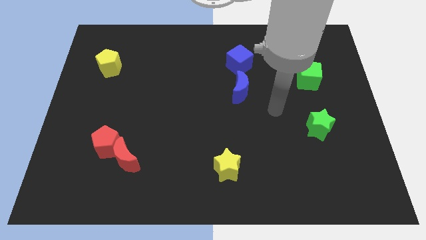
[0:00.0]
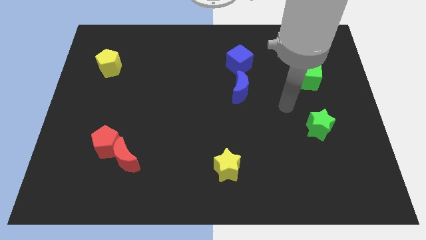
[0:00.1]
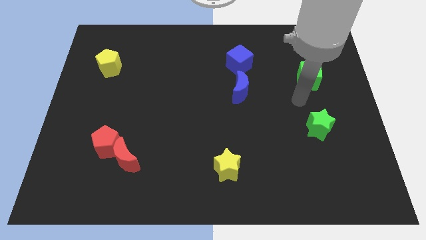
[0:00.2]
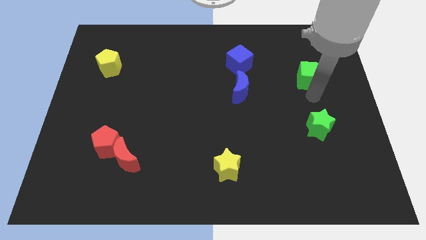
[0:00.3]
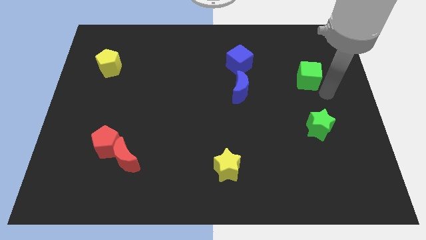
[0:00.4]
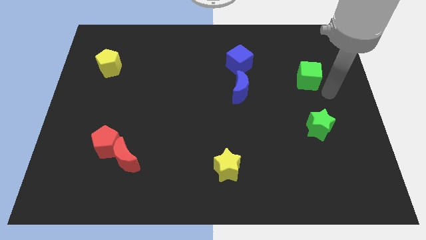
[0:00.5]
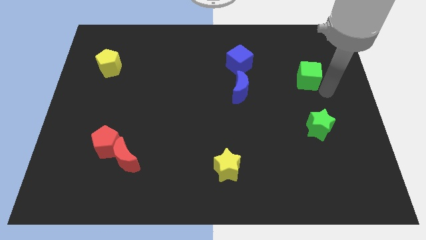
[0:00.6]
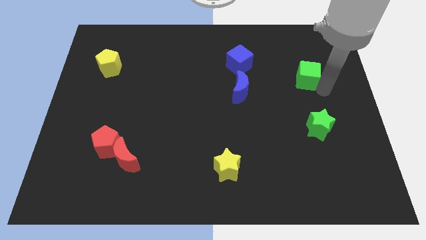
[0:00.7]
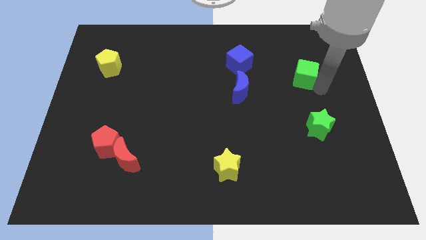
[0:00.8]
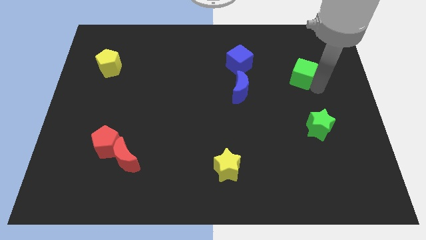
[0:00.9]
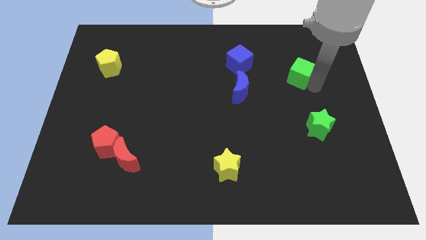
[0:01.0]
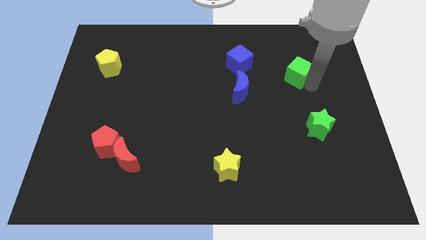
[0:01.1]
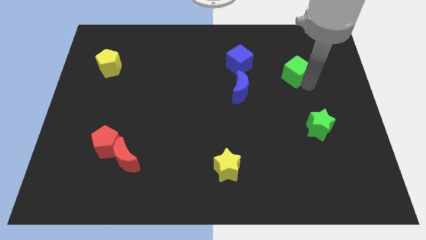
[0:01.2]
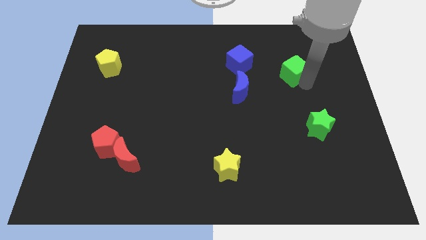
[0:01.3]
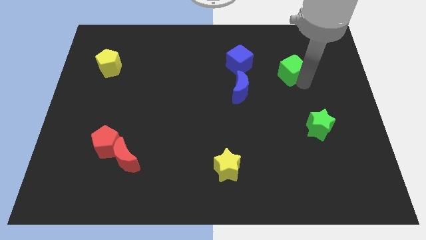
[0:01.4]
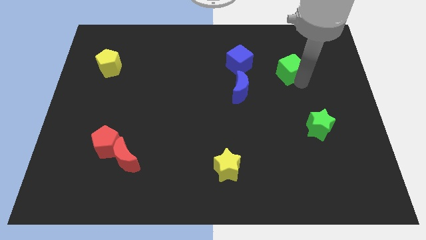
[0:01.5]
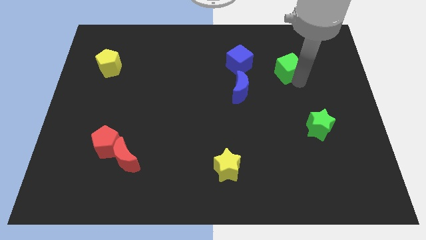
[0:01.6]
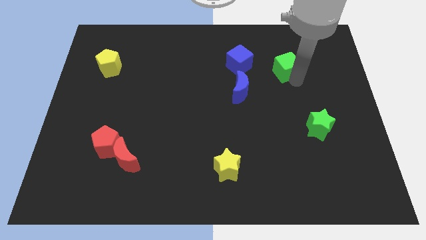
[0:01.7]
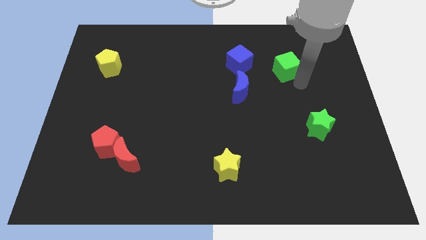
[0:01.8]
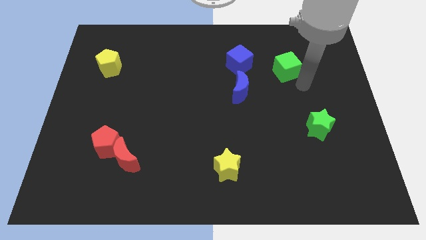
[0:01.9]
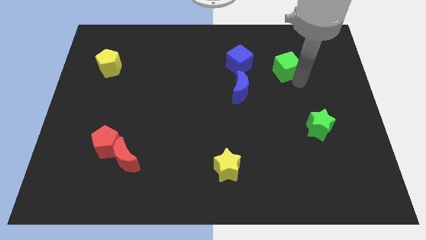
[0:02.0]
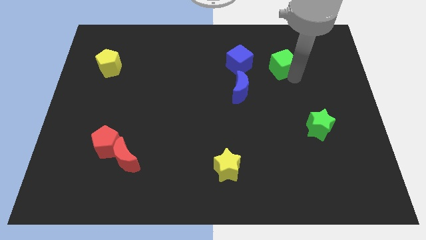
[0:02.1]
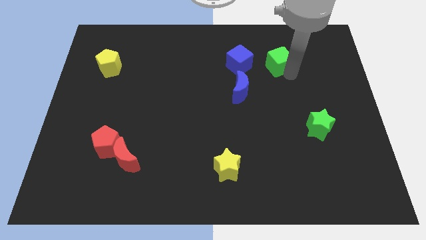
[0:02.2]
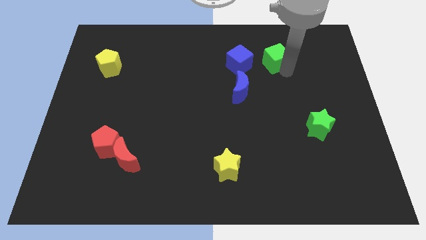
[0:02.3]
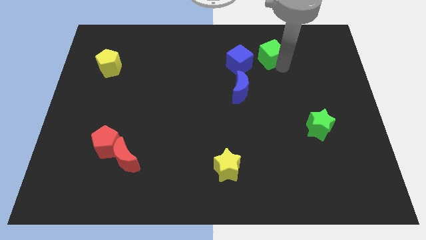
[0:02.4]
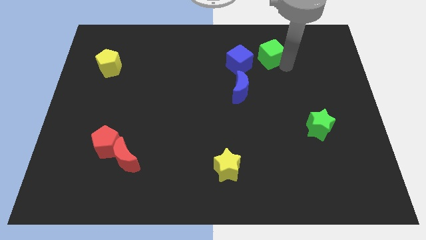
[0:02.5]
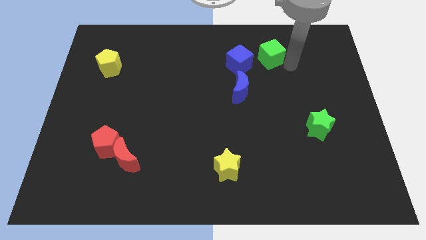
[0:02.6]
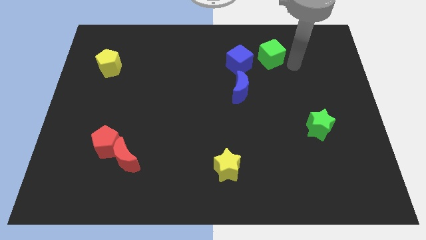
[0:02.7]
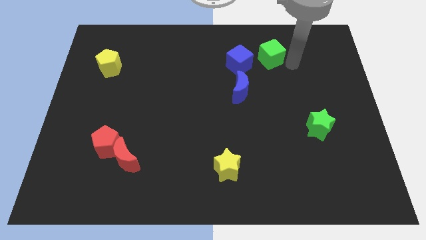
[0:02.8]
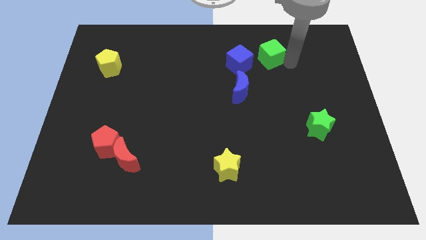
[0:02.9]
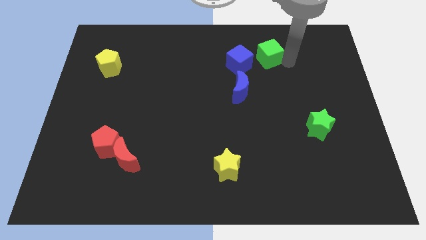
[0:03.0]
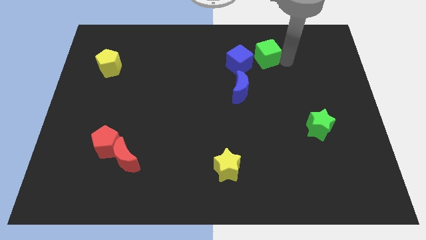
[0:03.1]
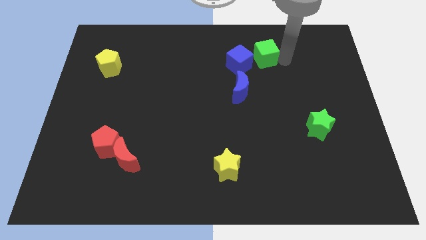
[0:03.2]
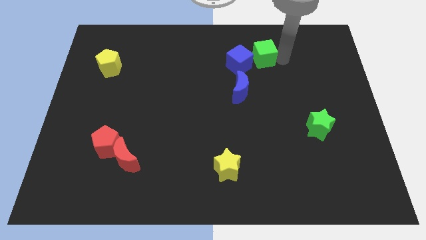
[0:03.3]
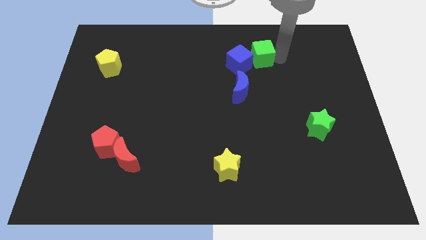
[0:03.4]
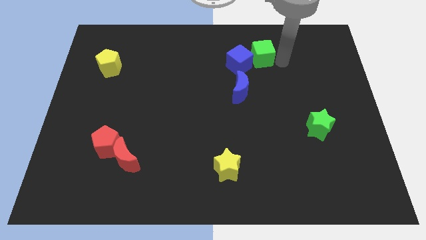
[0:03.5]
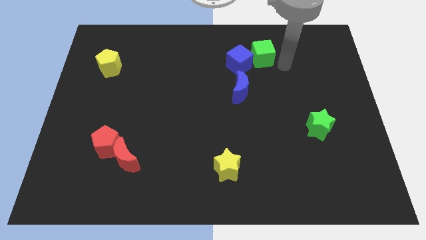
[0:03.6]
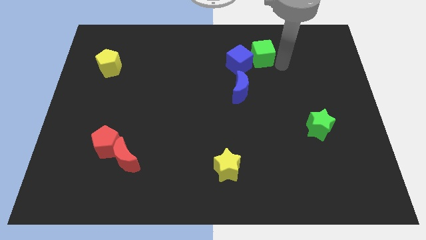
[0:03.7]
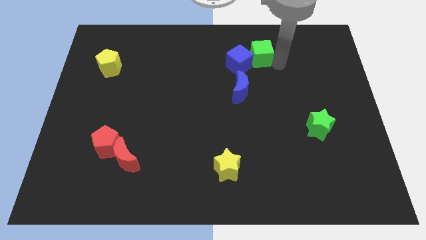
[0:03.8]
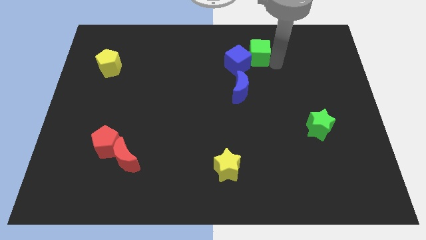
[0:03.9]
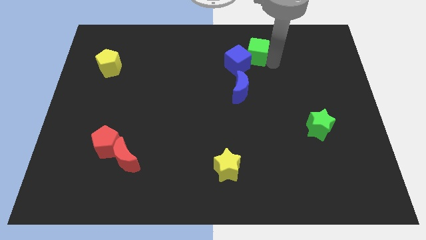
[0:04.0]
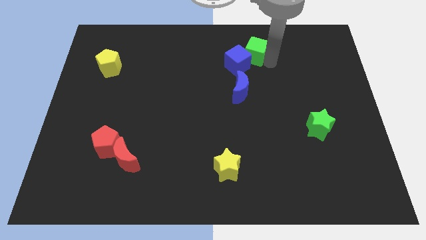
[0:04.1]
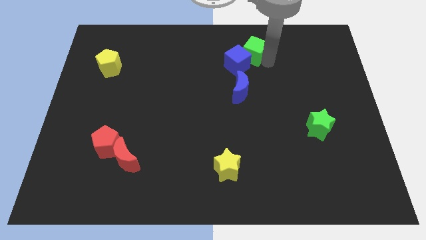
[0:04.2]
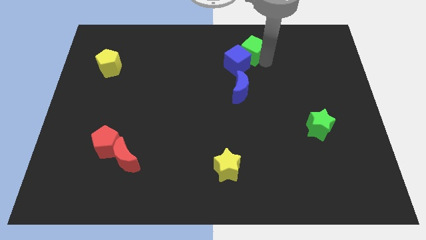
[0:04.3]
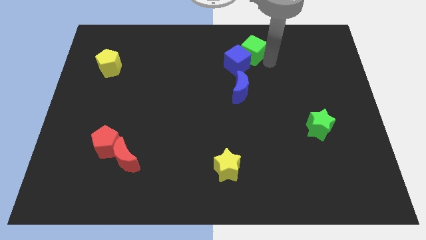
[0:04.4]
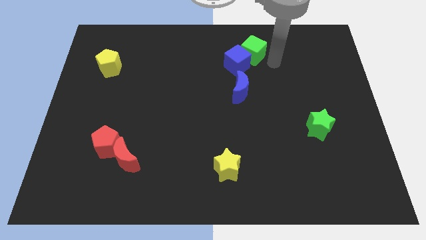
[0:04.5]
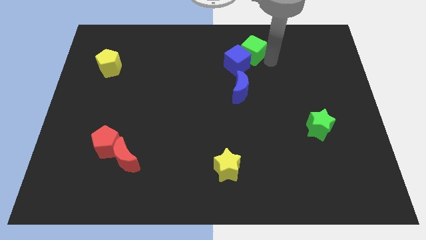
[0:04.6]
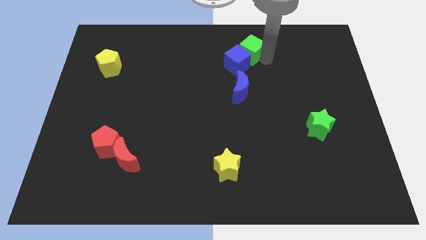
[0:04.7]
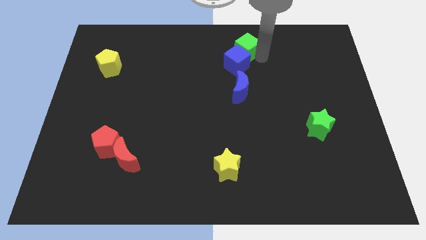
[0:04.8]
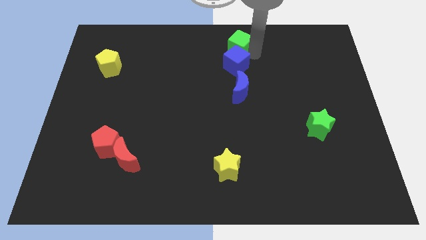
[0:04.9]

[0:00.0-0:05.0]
slide the green cube to the towards your base

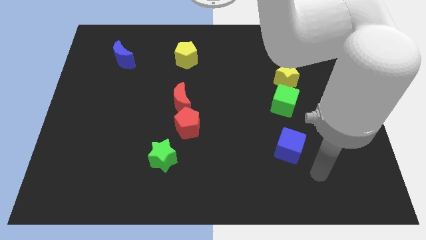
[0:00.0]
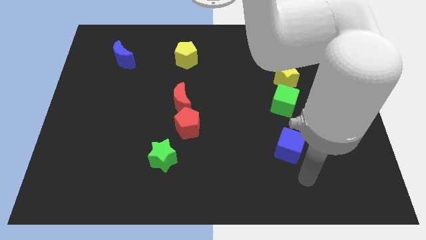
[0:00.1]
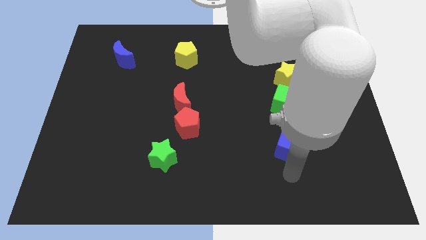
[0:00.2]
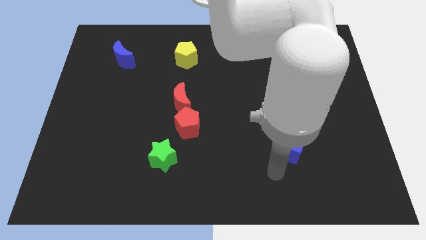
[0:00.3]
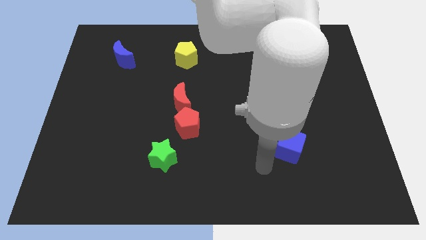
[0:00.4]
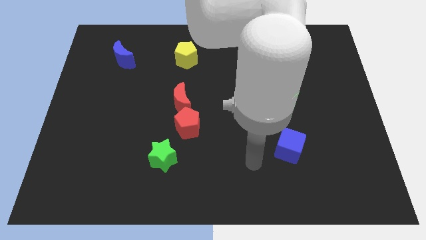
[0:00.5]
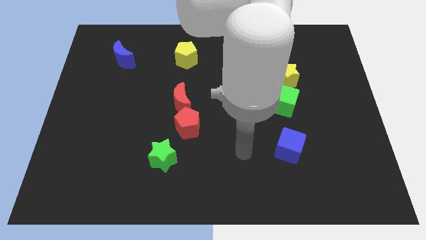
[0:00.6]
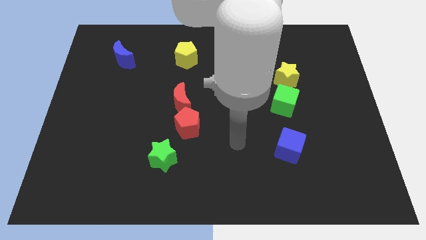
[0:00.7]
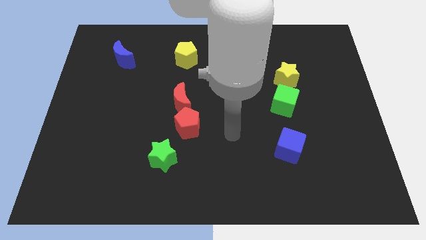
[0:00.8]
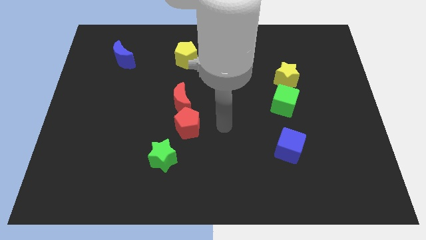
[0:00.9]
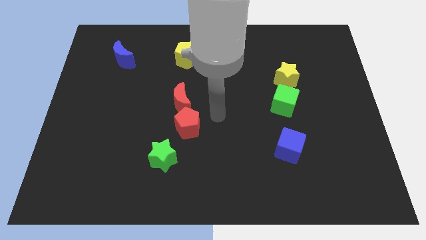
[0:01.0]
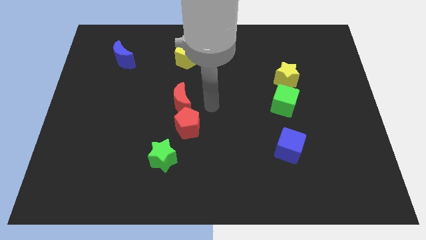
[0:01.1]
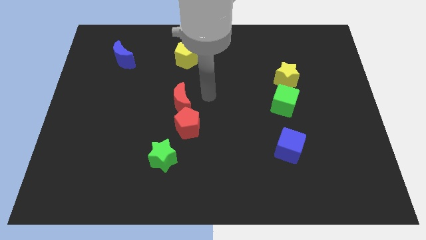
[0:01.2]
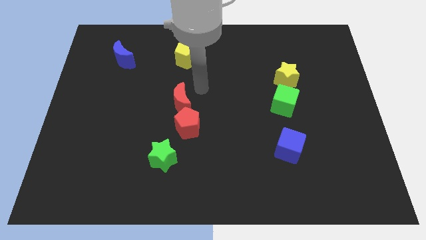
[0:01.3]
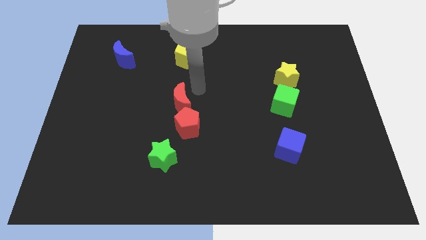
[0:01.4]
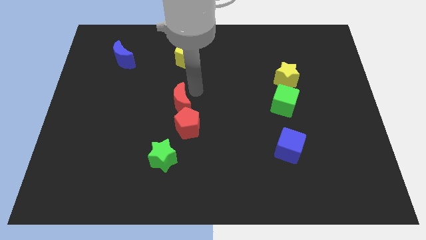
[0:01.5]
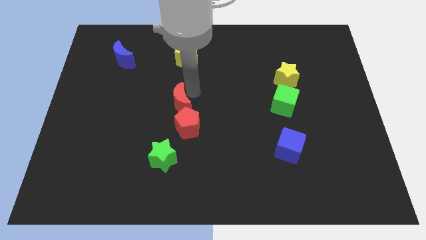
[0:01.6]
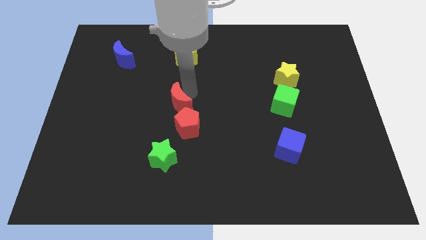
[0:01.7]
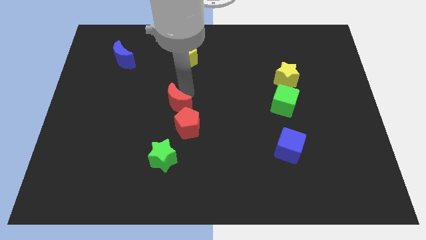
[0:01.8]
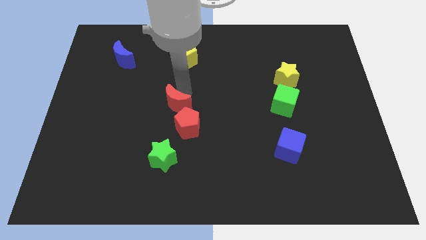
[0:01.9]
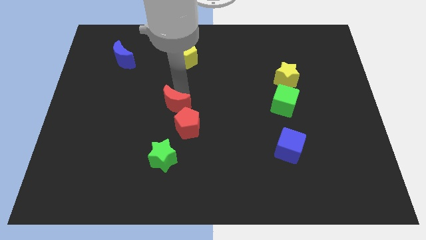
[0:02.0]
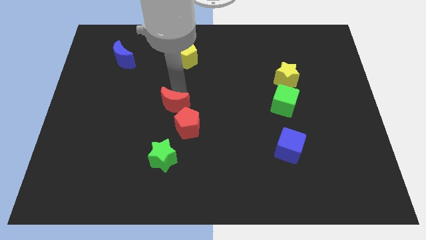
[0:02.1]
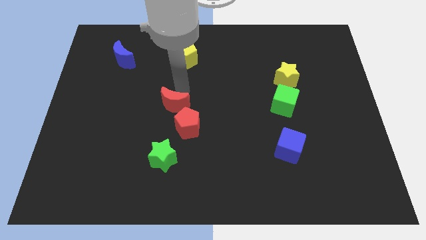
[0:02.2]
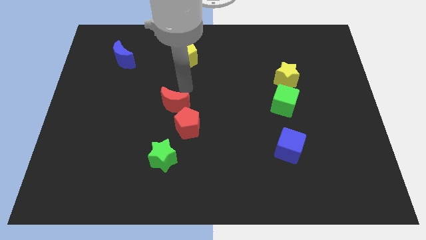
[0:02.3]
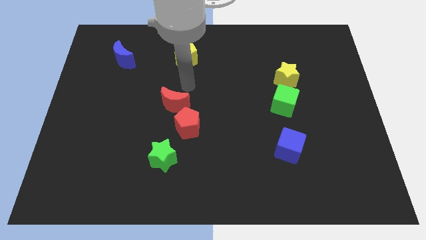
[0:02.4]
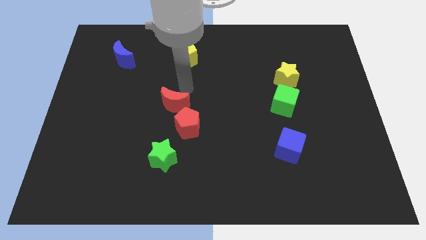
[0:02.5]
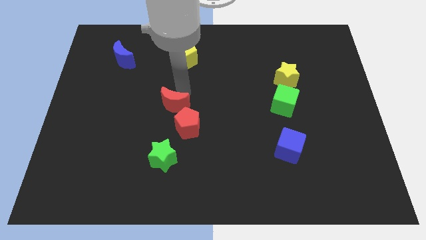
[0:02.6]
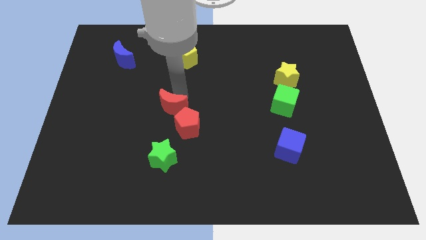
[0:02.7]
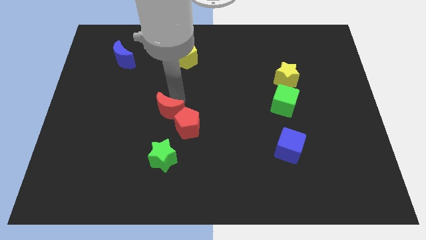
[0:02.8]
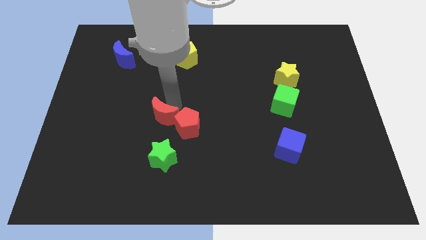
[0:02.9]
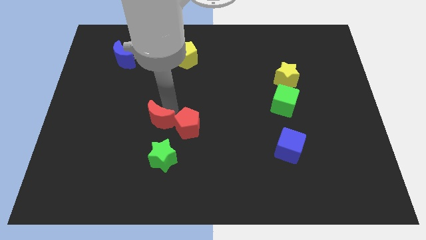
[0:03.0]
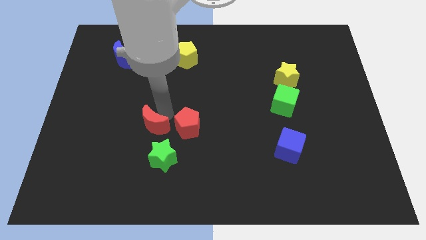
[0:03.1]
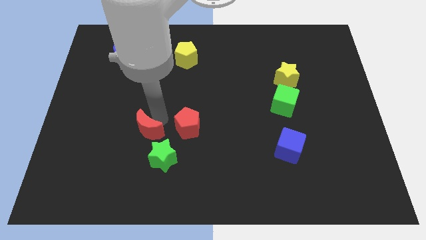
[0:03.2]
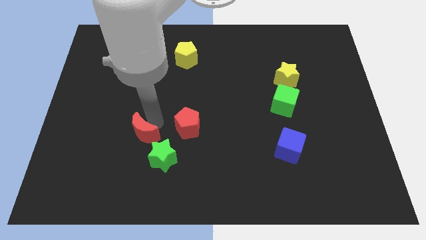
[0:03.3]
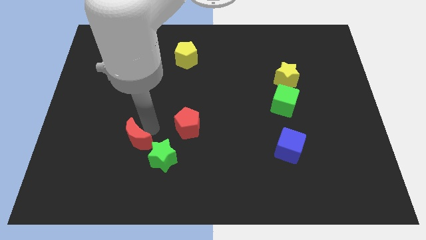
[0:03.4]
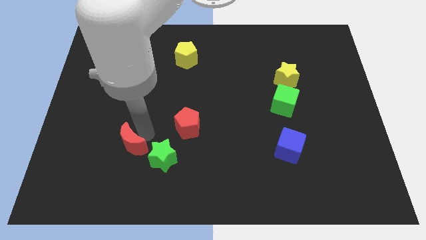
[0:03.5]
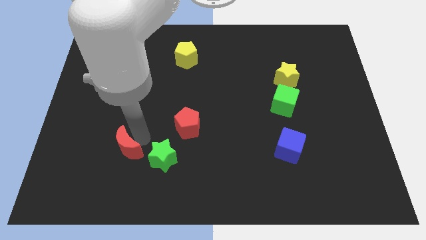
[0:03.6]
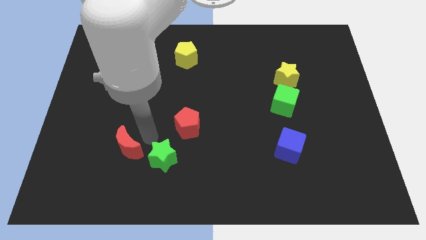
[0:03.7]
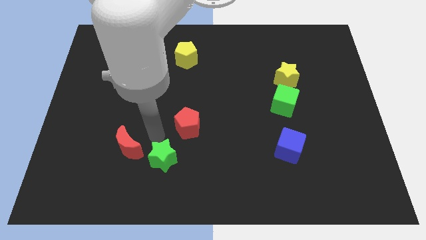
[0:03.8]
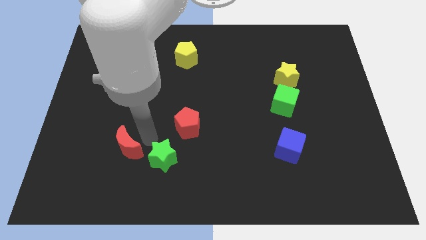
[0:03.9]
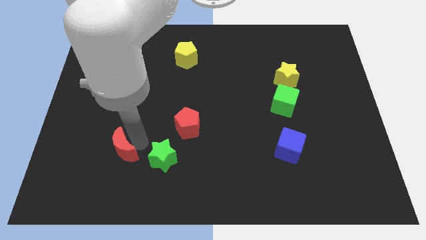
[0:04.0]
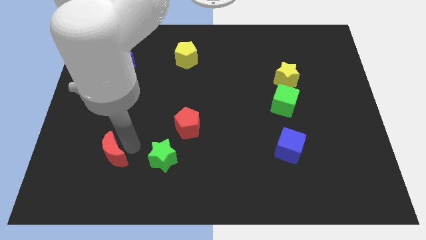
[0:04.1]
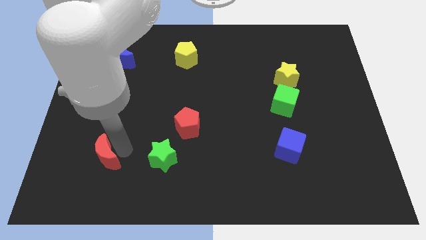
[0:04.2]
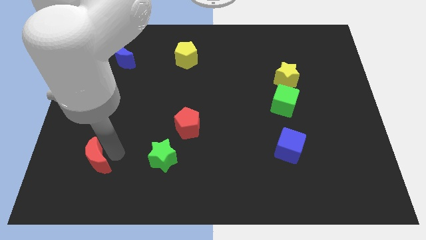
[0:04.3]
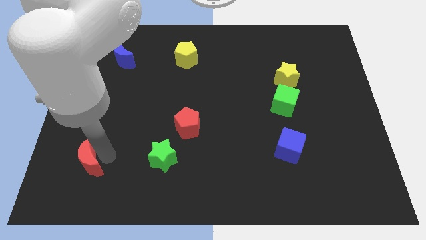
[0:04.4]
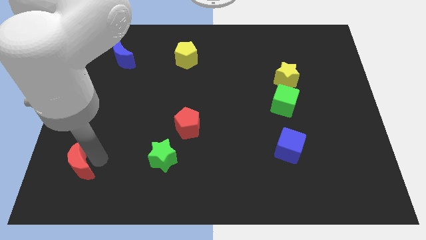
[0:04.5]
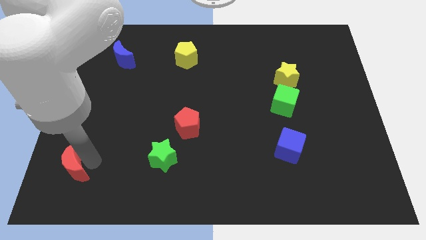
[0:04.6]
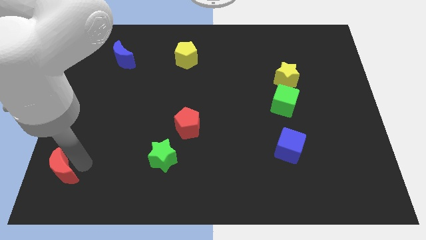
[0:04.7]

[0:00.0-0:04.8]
move the red moon to the bottom left of the board
